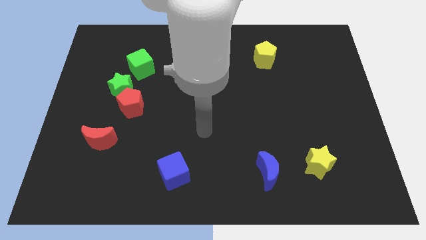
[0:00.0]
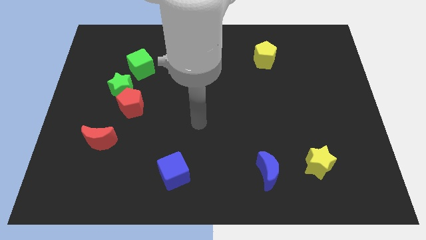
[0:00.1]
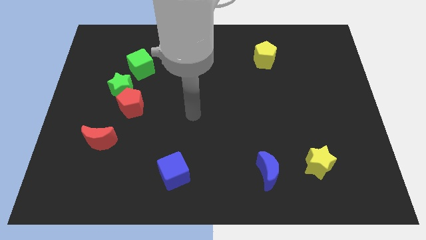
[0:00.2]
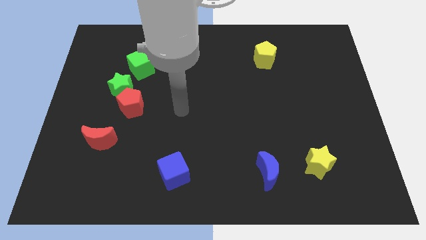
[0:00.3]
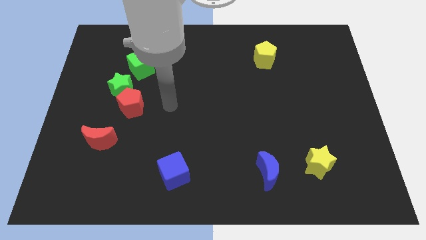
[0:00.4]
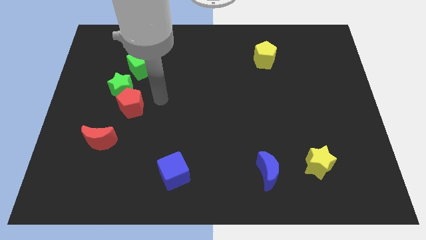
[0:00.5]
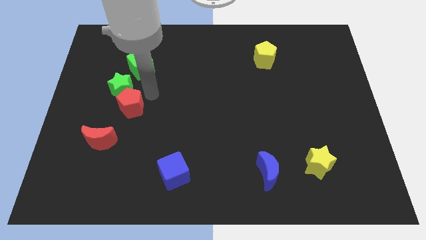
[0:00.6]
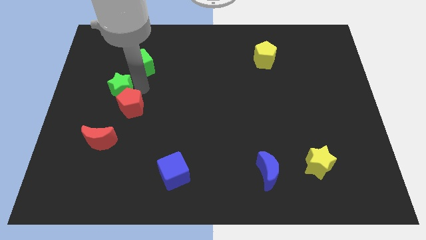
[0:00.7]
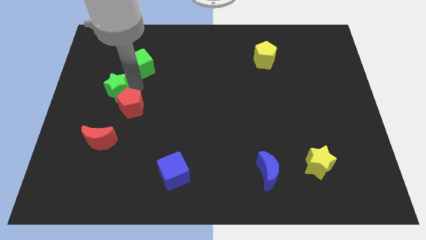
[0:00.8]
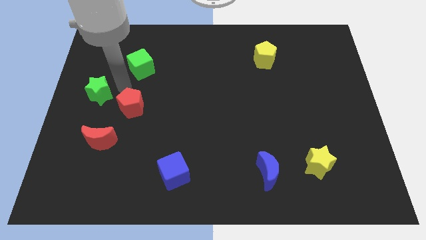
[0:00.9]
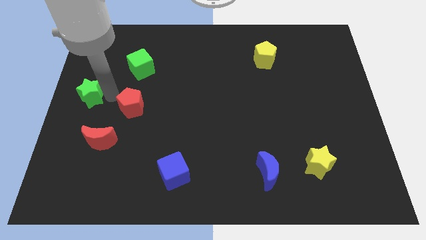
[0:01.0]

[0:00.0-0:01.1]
separate the red pentagon from the green star

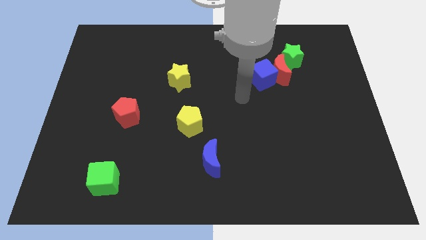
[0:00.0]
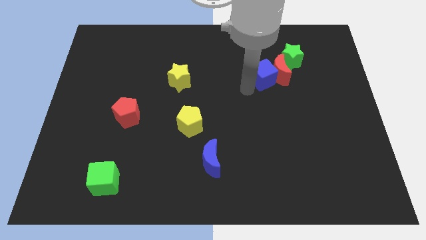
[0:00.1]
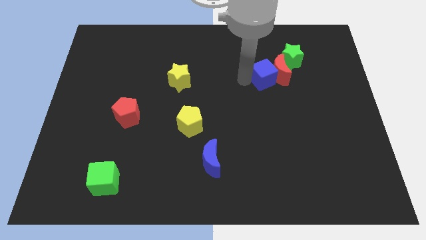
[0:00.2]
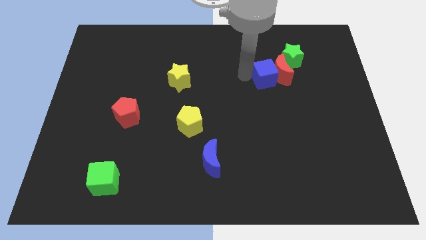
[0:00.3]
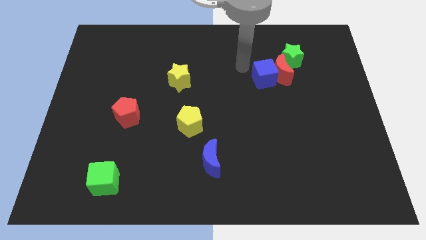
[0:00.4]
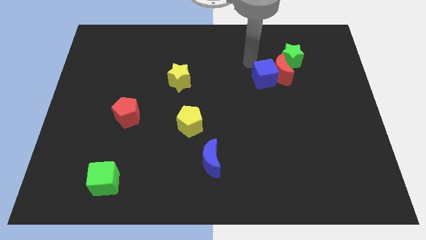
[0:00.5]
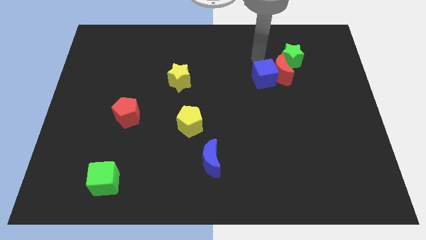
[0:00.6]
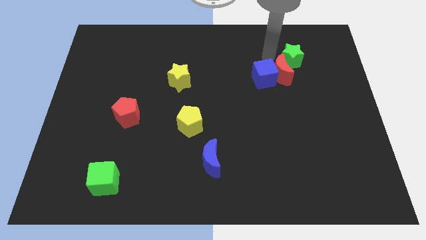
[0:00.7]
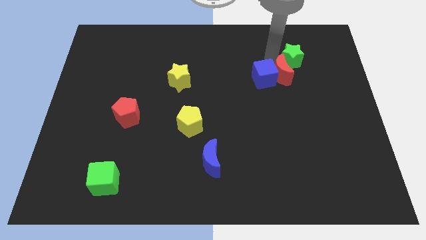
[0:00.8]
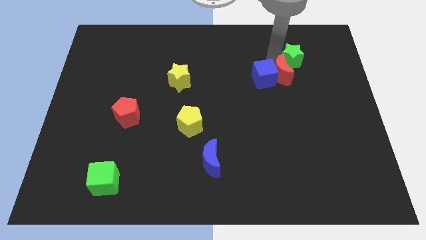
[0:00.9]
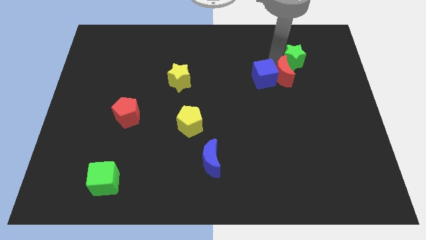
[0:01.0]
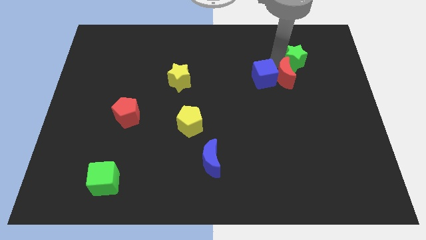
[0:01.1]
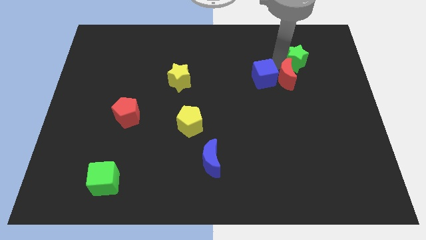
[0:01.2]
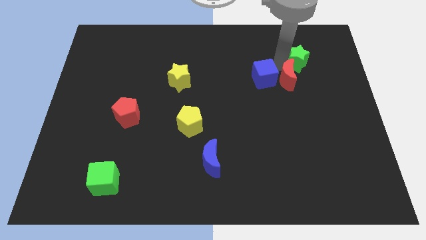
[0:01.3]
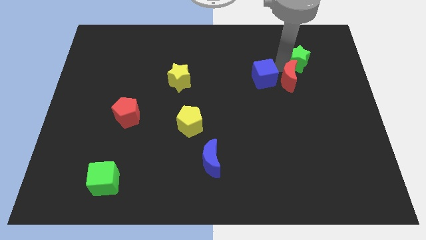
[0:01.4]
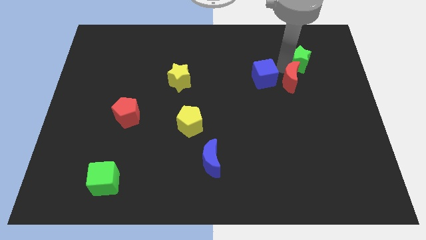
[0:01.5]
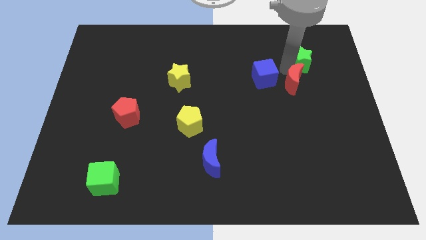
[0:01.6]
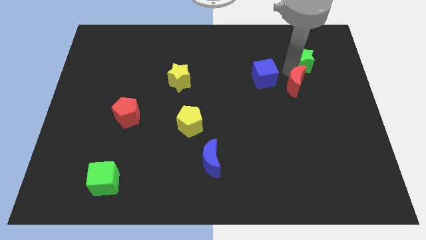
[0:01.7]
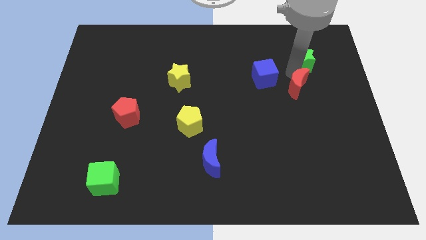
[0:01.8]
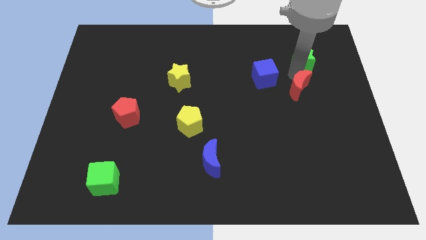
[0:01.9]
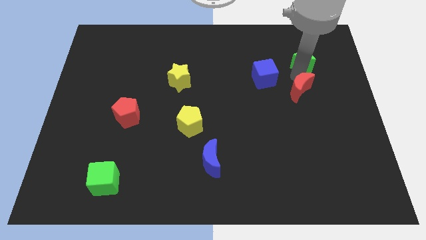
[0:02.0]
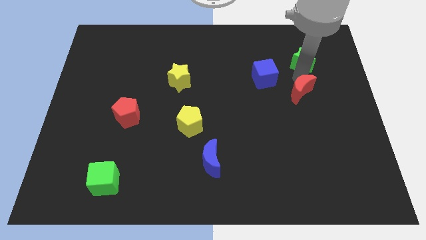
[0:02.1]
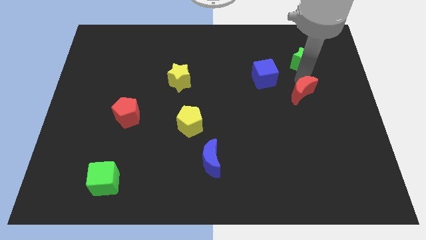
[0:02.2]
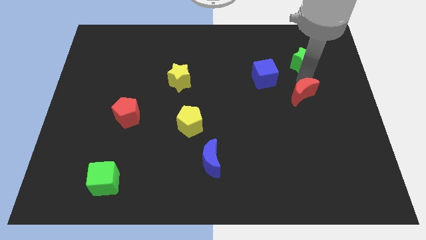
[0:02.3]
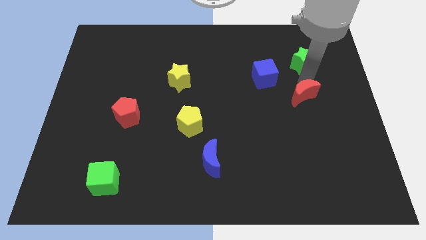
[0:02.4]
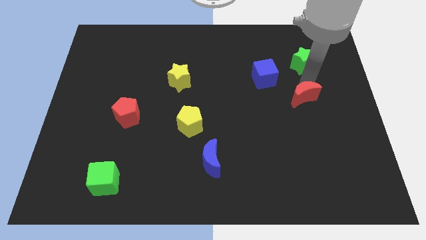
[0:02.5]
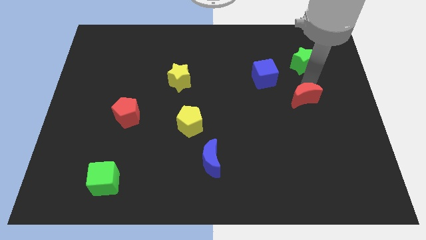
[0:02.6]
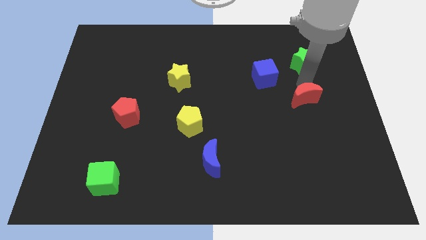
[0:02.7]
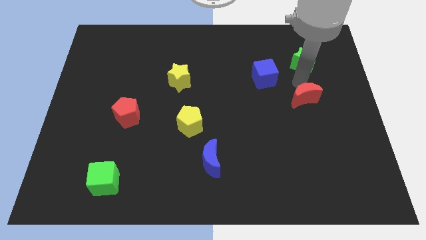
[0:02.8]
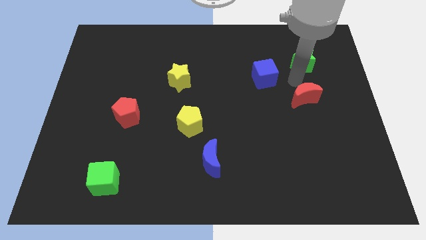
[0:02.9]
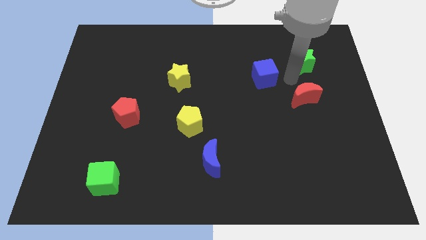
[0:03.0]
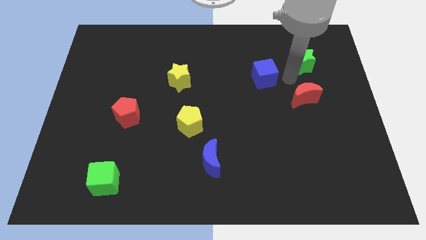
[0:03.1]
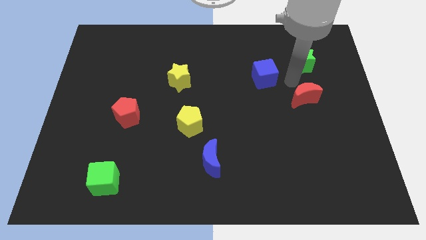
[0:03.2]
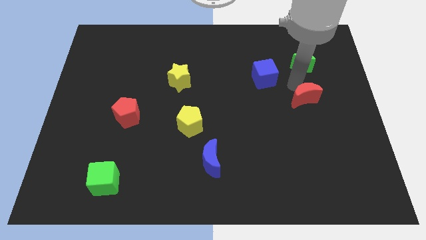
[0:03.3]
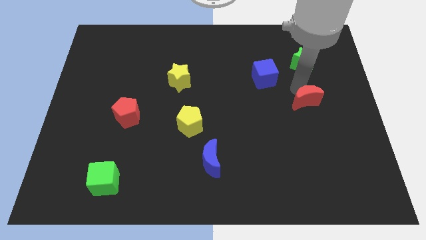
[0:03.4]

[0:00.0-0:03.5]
pull the red moon apart from the blue cube and green star

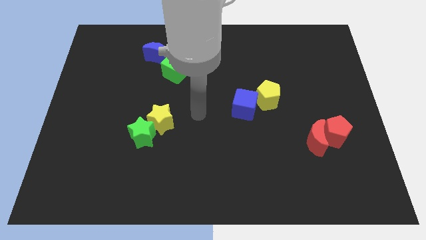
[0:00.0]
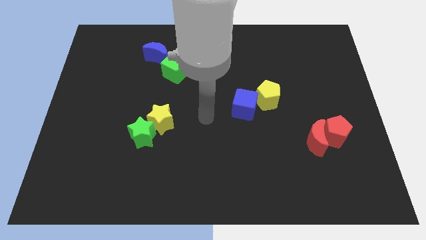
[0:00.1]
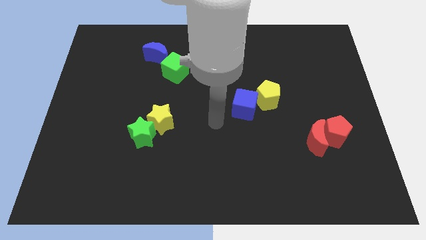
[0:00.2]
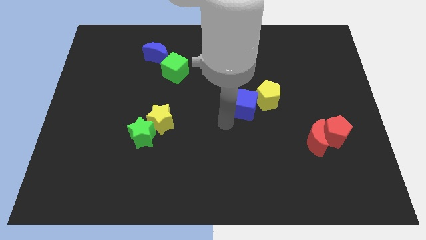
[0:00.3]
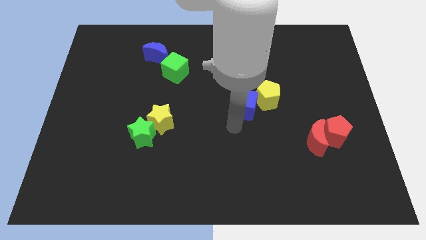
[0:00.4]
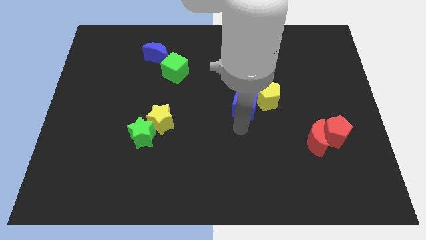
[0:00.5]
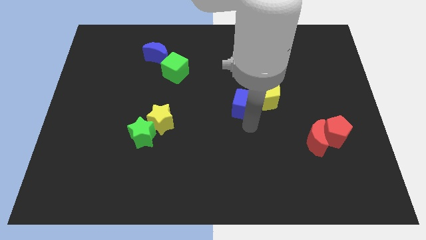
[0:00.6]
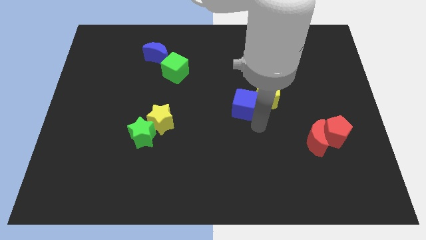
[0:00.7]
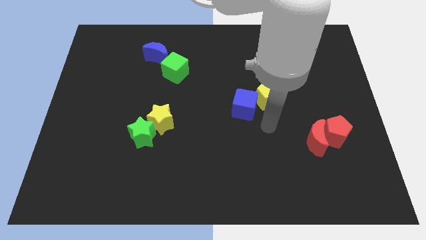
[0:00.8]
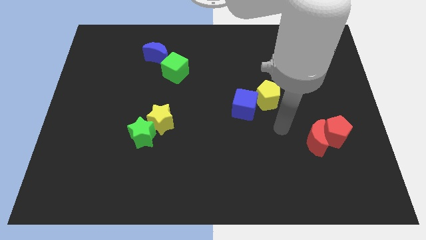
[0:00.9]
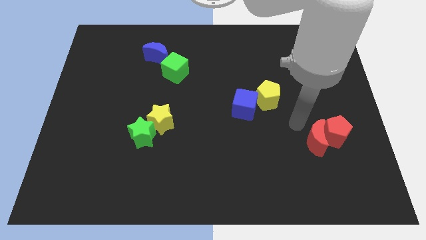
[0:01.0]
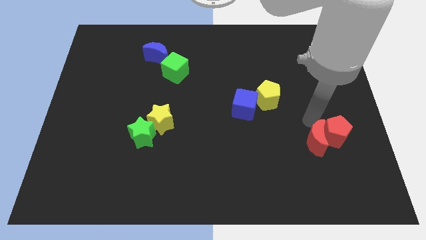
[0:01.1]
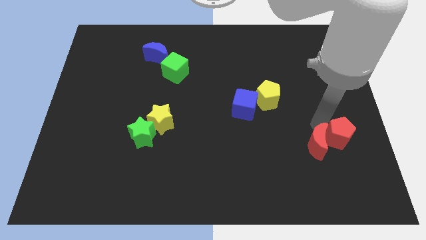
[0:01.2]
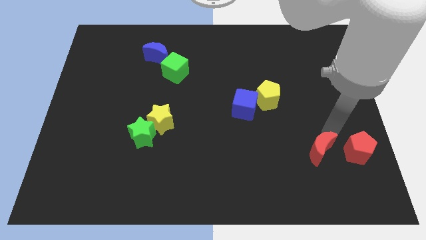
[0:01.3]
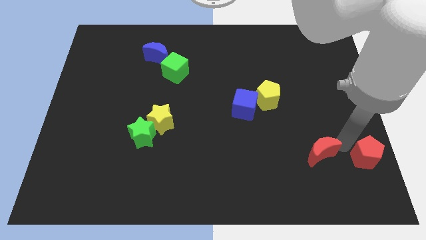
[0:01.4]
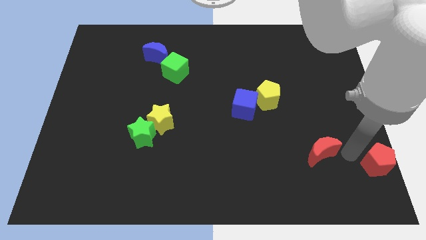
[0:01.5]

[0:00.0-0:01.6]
pull the red moon apart from the red pentagon

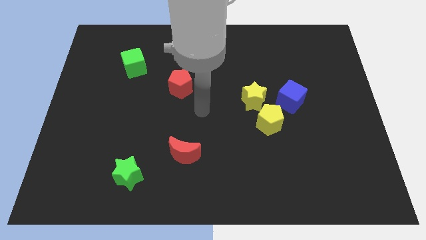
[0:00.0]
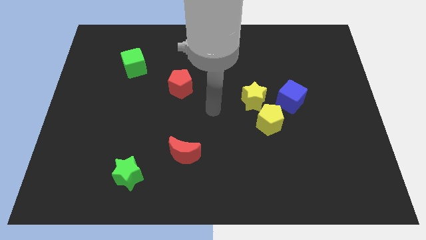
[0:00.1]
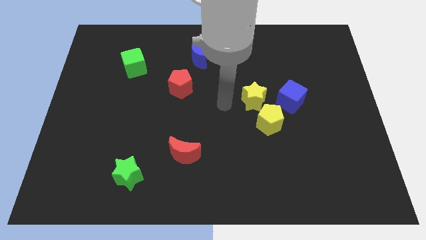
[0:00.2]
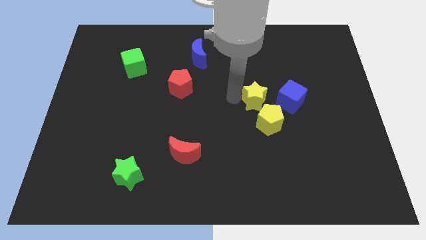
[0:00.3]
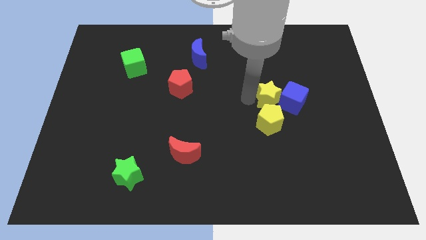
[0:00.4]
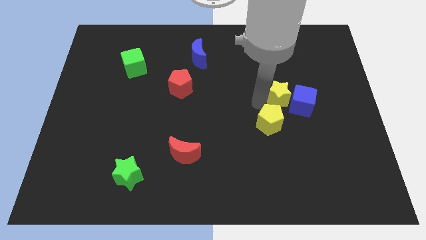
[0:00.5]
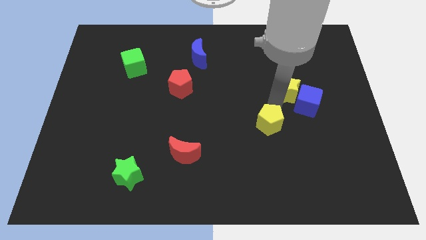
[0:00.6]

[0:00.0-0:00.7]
separate the yellow pentagon from the yellow star and blue cube

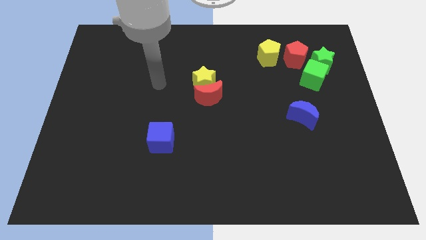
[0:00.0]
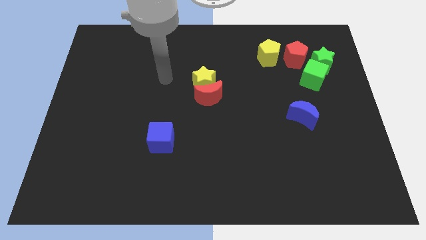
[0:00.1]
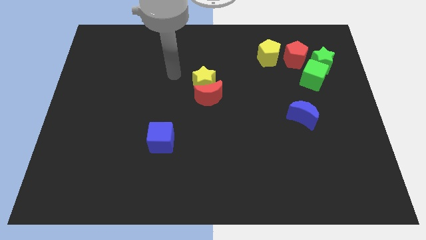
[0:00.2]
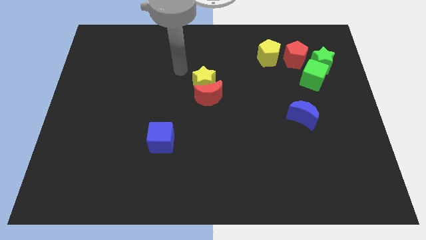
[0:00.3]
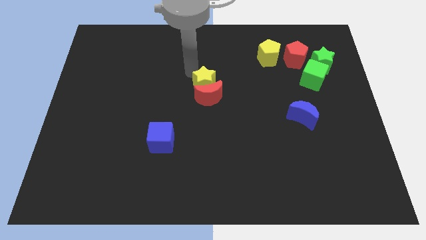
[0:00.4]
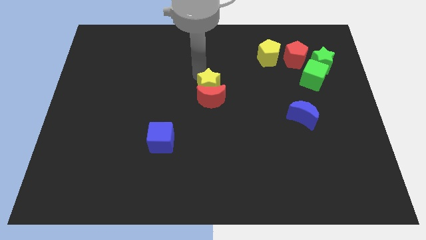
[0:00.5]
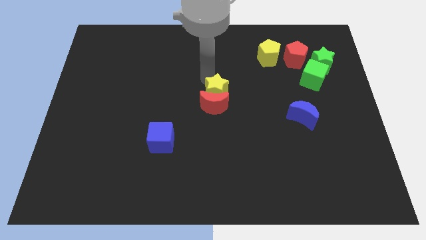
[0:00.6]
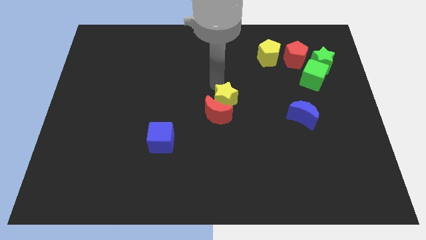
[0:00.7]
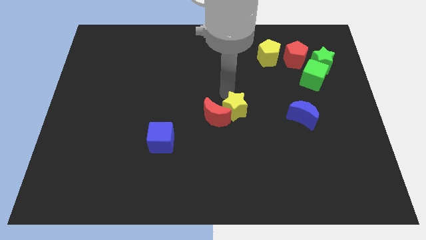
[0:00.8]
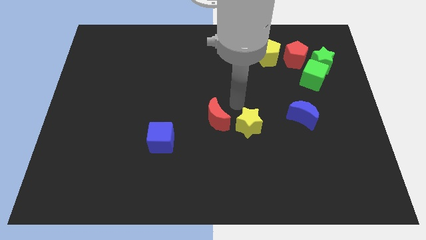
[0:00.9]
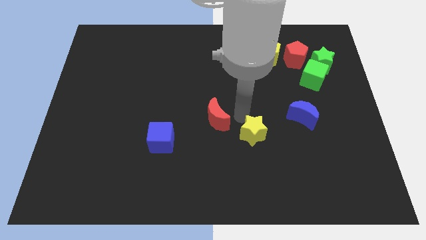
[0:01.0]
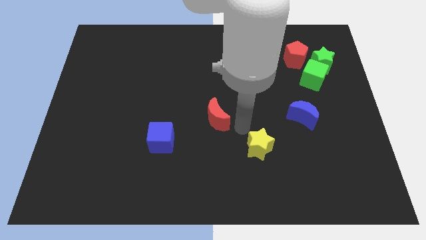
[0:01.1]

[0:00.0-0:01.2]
move the red moon away from the yellow star

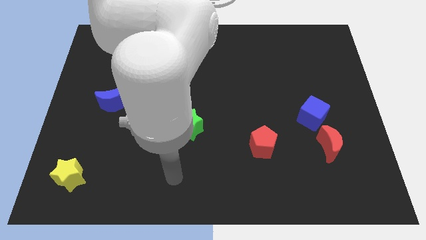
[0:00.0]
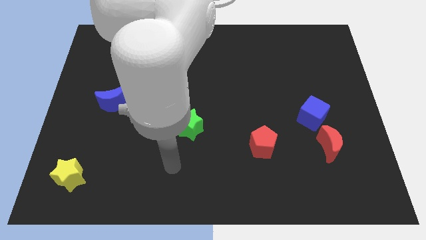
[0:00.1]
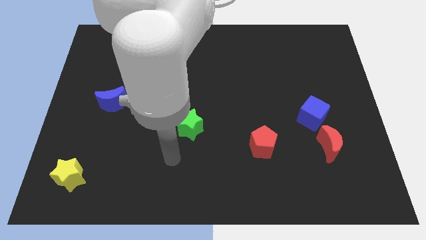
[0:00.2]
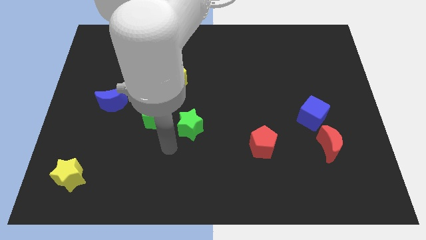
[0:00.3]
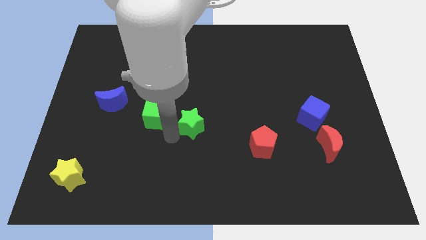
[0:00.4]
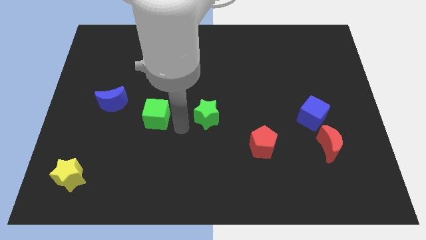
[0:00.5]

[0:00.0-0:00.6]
pull the green cube apart from the green star

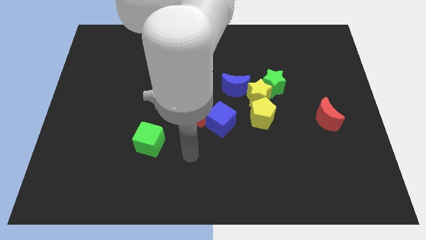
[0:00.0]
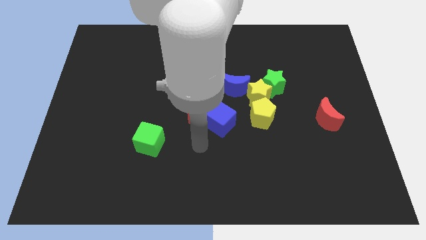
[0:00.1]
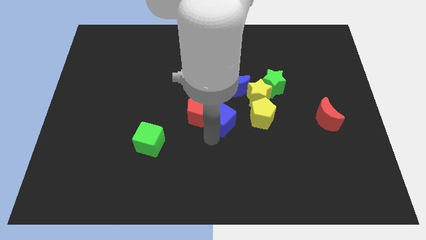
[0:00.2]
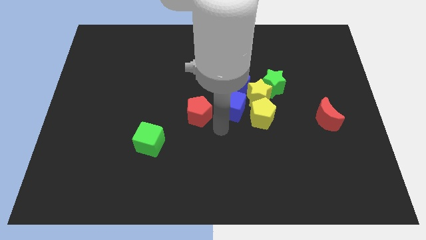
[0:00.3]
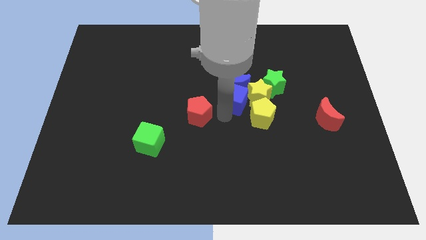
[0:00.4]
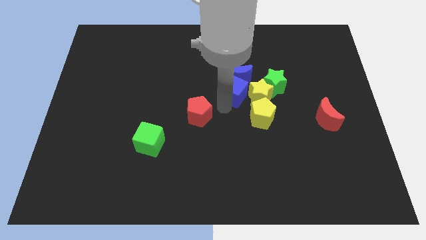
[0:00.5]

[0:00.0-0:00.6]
separate the red pentagon from the blue cube
